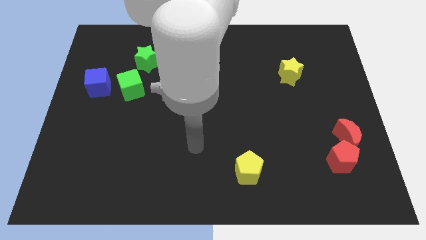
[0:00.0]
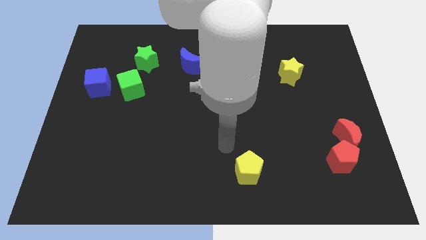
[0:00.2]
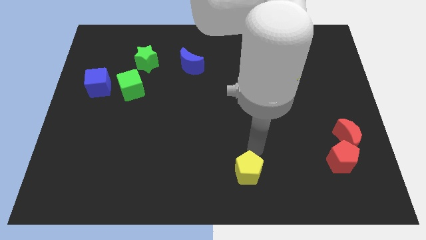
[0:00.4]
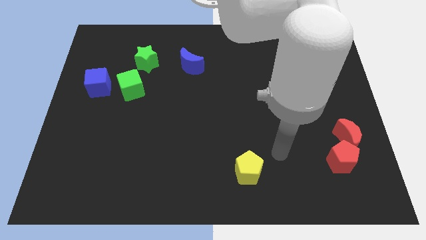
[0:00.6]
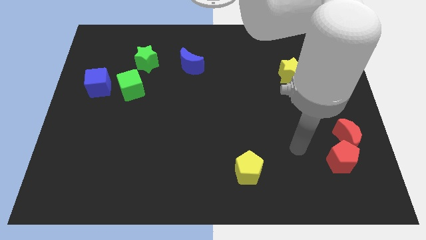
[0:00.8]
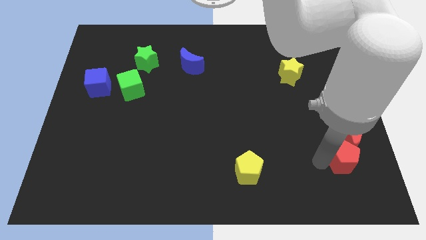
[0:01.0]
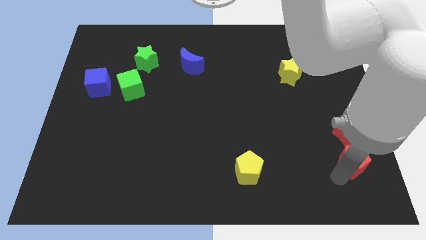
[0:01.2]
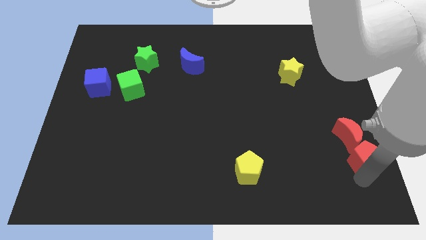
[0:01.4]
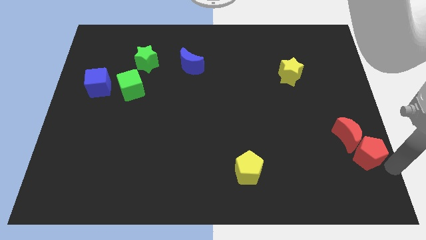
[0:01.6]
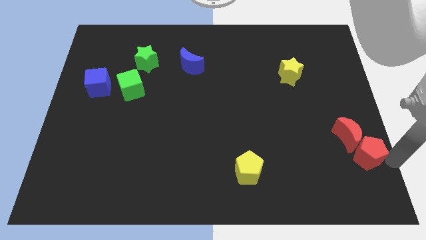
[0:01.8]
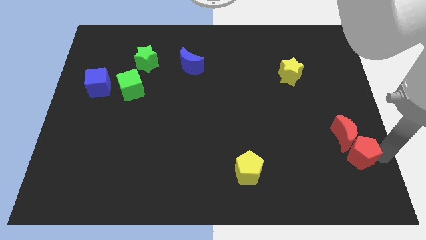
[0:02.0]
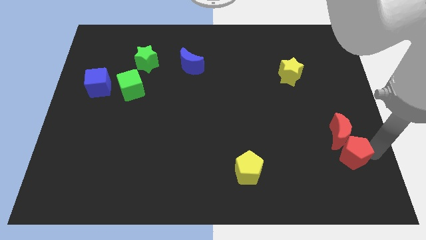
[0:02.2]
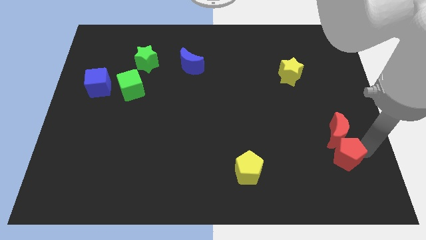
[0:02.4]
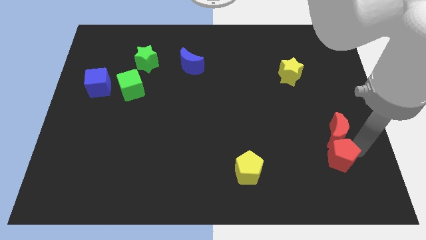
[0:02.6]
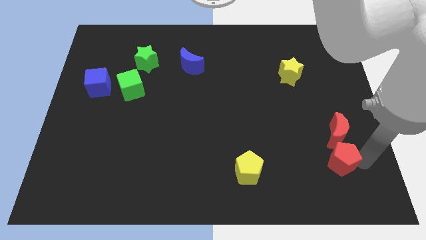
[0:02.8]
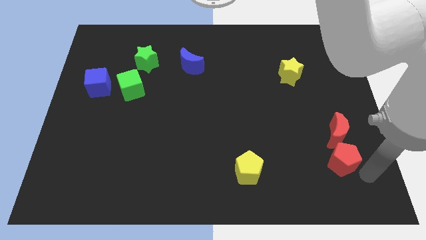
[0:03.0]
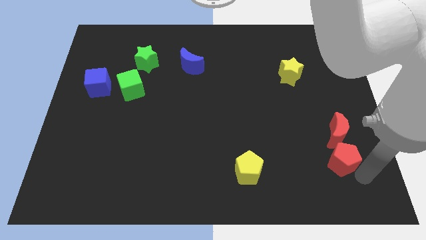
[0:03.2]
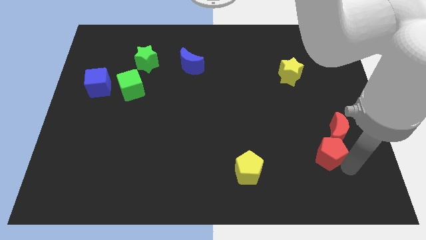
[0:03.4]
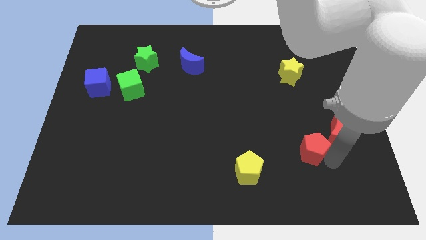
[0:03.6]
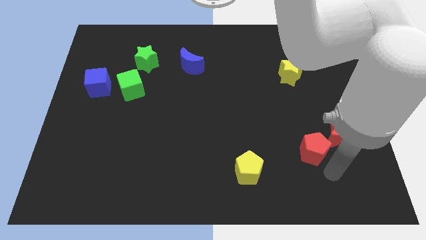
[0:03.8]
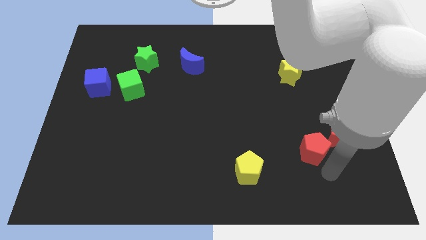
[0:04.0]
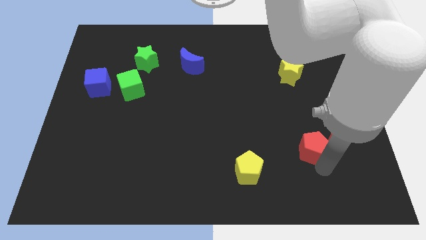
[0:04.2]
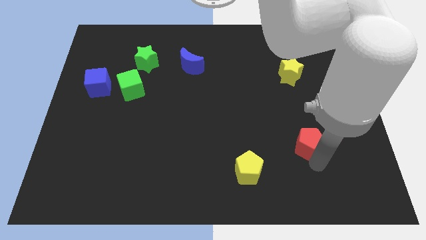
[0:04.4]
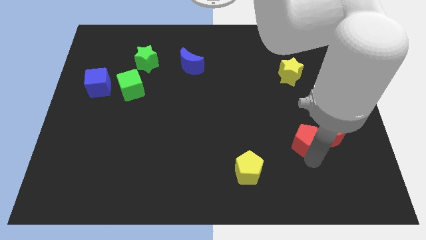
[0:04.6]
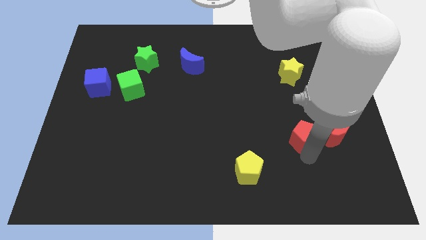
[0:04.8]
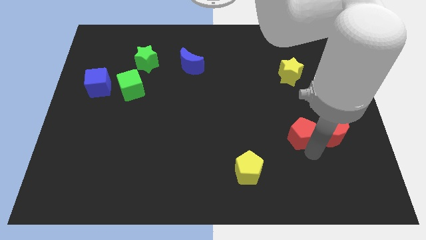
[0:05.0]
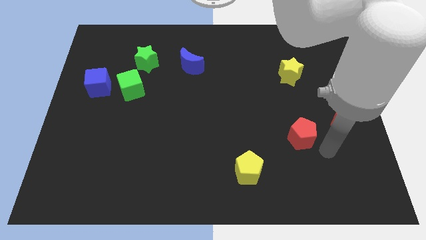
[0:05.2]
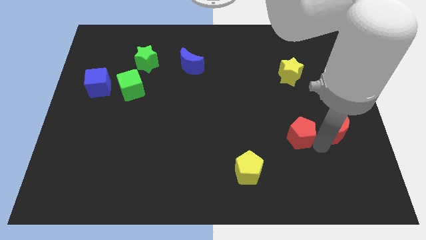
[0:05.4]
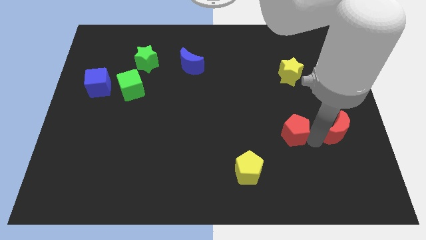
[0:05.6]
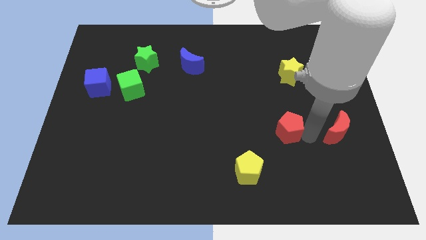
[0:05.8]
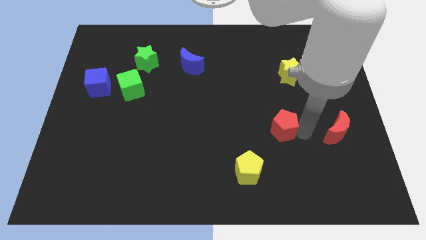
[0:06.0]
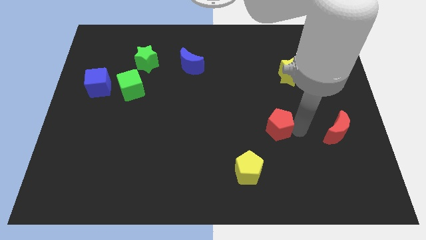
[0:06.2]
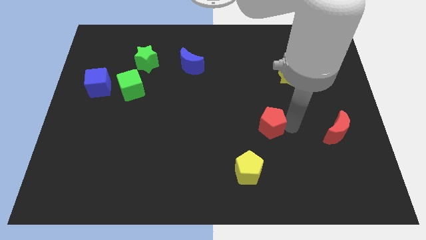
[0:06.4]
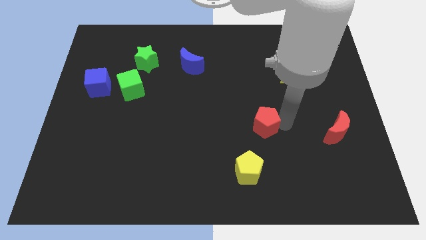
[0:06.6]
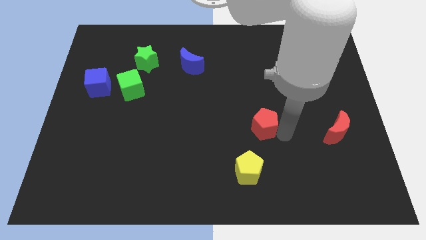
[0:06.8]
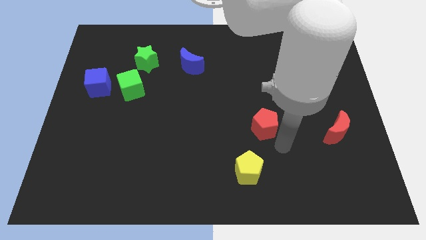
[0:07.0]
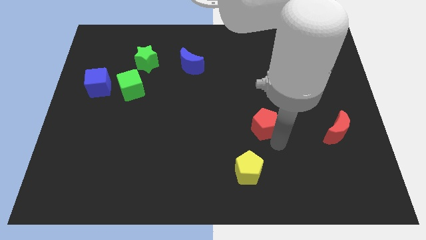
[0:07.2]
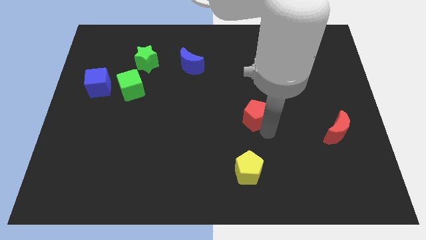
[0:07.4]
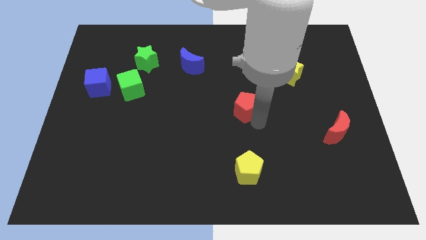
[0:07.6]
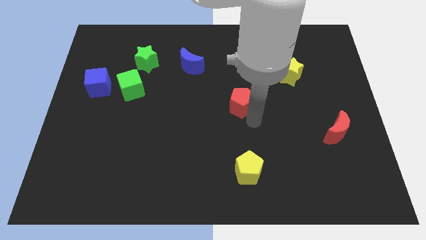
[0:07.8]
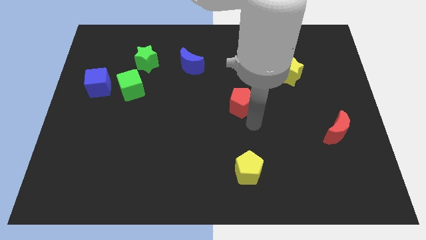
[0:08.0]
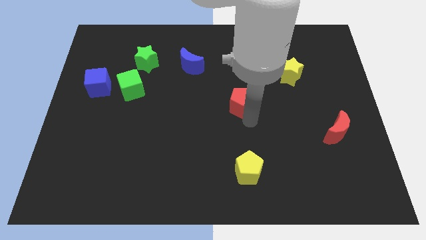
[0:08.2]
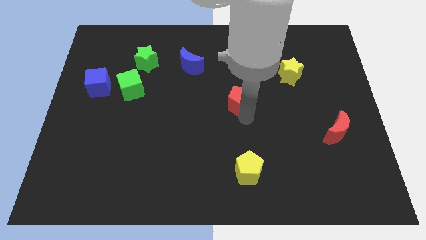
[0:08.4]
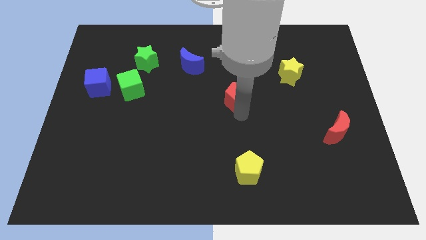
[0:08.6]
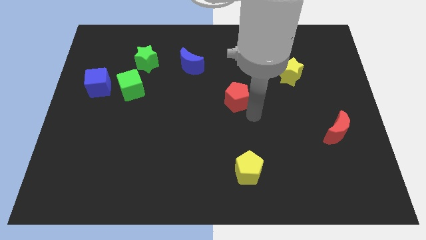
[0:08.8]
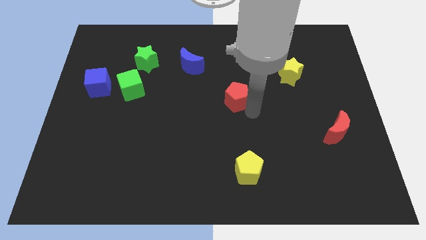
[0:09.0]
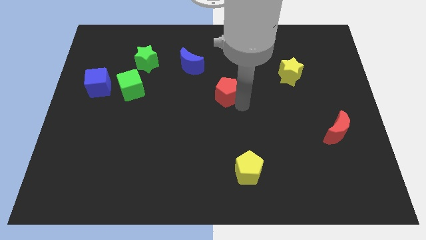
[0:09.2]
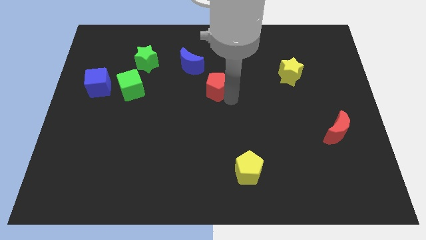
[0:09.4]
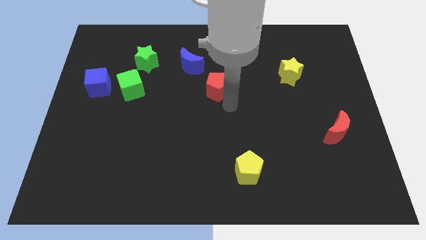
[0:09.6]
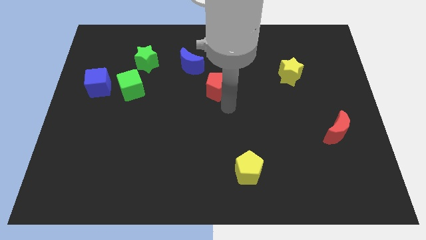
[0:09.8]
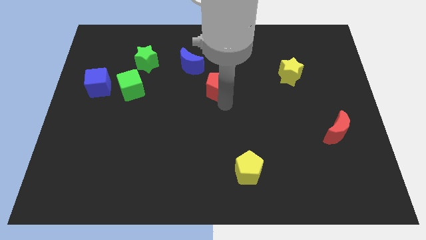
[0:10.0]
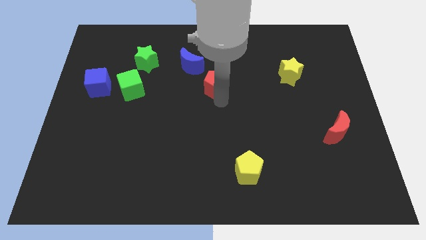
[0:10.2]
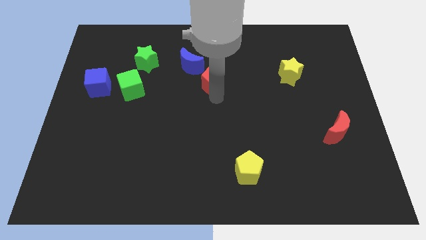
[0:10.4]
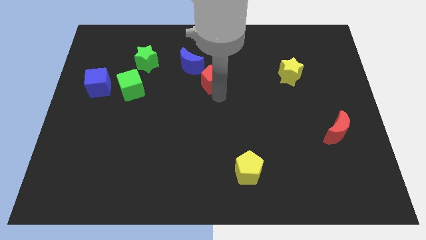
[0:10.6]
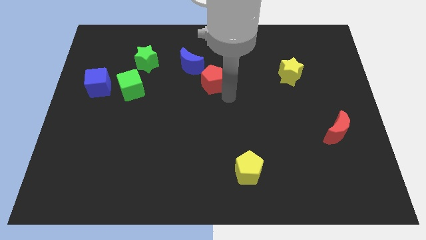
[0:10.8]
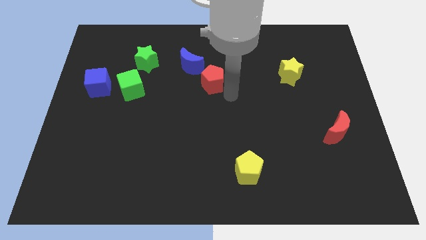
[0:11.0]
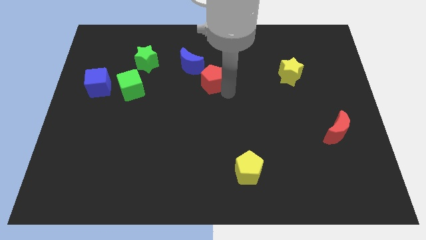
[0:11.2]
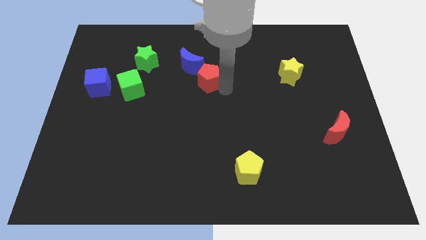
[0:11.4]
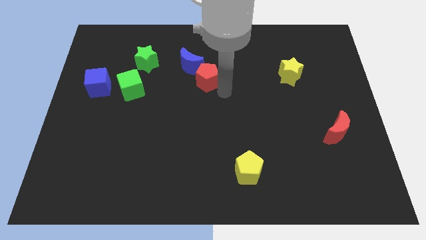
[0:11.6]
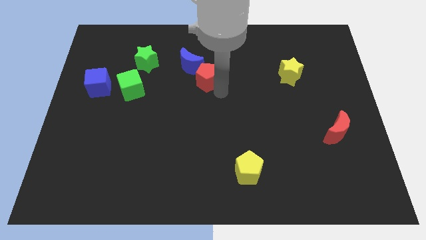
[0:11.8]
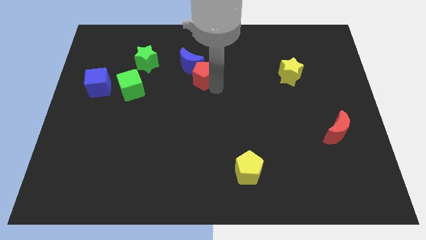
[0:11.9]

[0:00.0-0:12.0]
slide the red pentagon to the blue moon

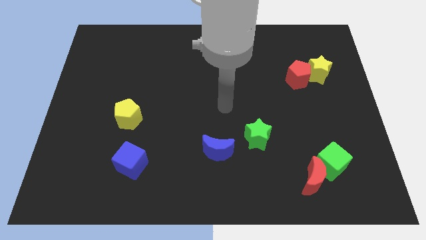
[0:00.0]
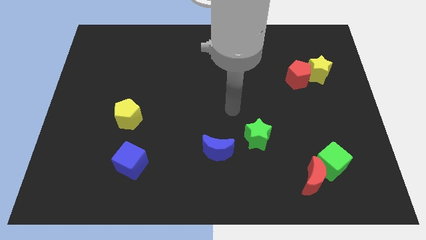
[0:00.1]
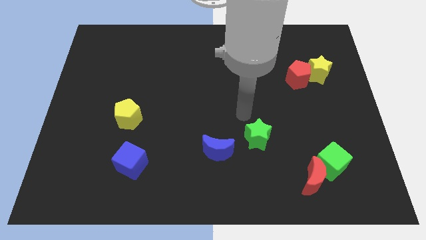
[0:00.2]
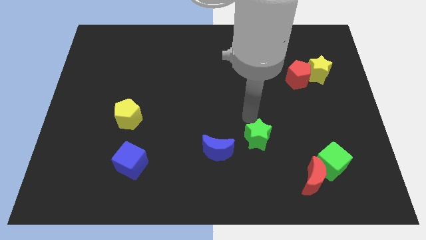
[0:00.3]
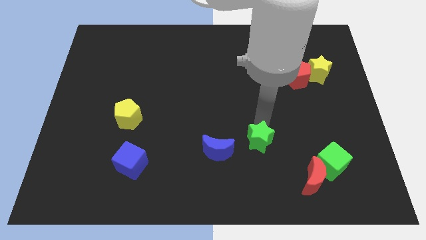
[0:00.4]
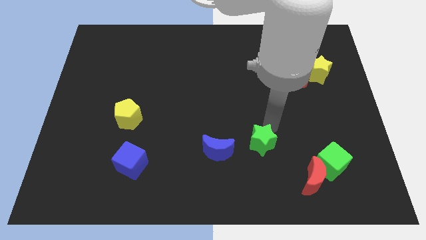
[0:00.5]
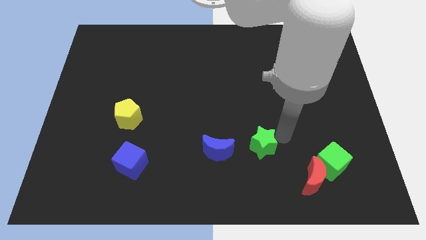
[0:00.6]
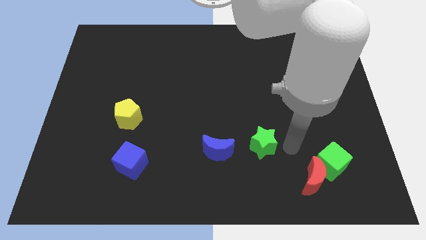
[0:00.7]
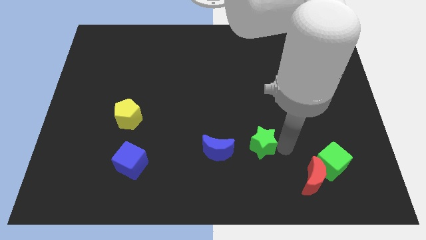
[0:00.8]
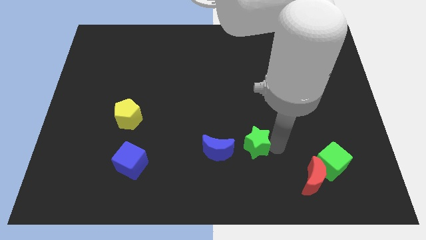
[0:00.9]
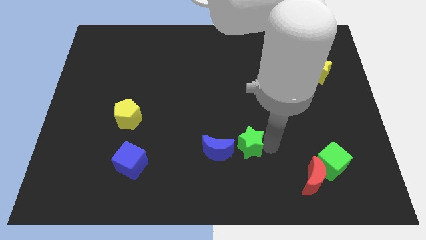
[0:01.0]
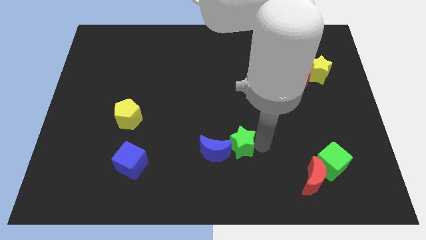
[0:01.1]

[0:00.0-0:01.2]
slide the green star next to the blue moon

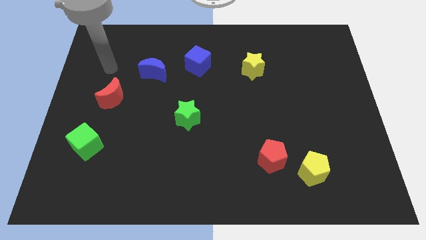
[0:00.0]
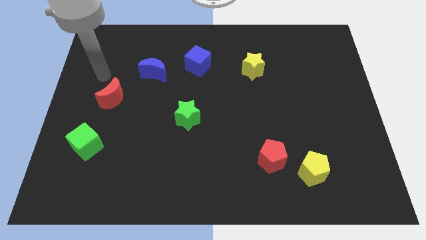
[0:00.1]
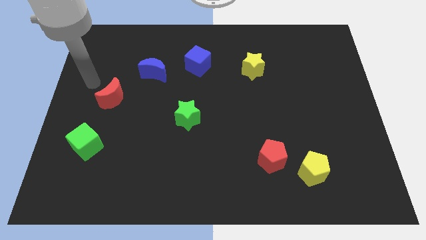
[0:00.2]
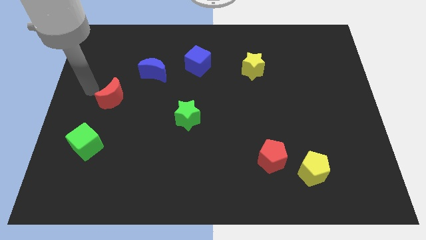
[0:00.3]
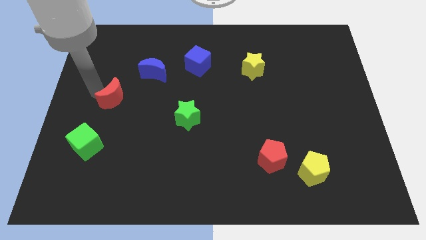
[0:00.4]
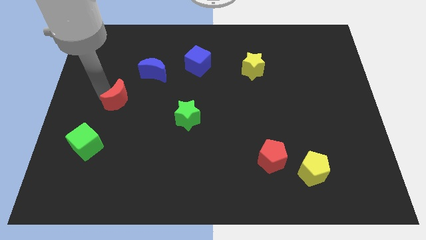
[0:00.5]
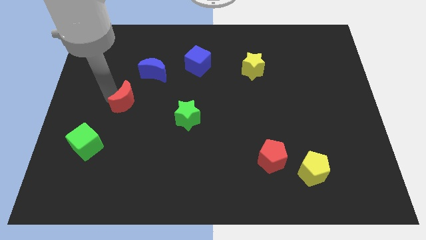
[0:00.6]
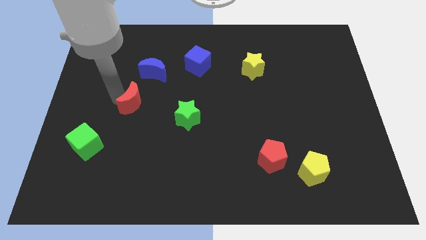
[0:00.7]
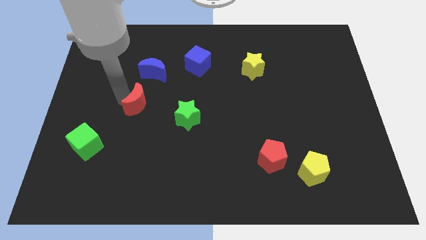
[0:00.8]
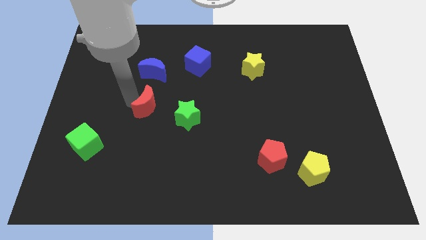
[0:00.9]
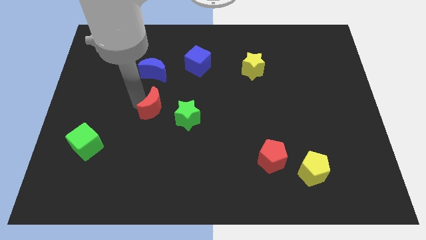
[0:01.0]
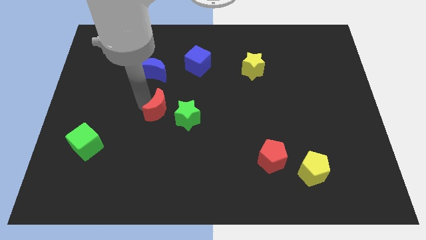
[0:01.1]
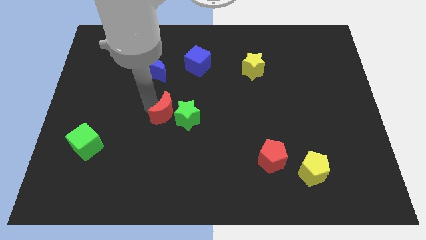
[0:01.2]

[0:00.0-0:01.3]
move the red moon to the green star
